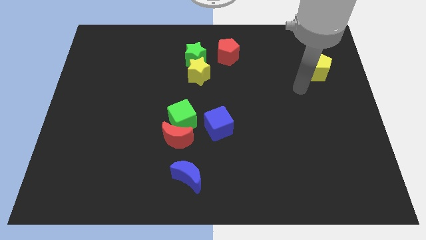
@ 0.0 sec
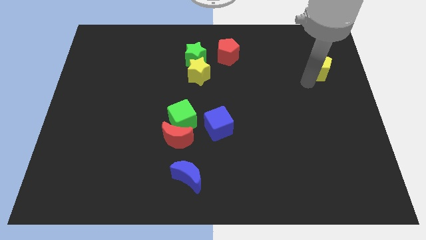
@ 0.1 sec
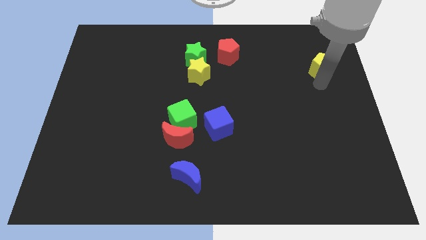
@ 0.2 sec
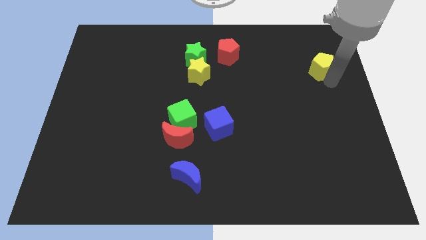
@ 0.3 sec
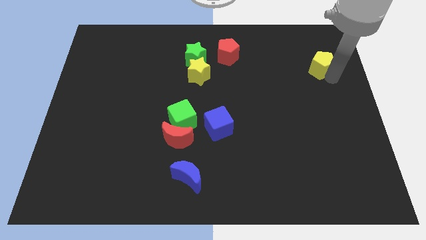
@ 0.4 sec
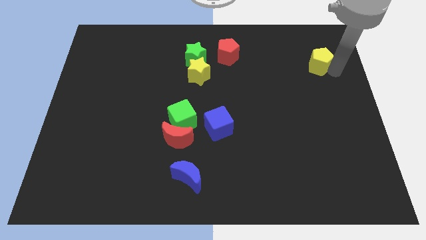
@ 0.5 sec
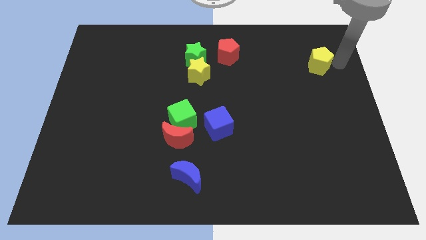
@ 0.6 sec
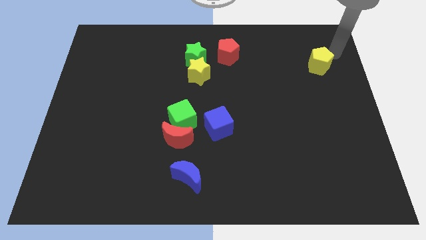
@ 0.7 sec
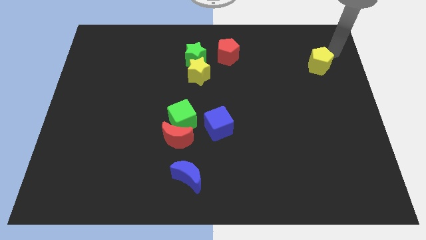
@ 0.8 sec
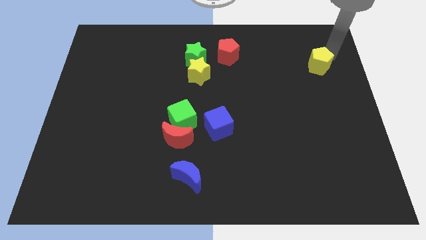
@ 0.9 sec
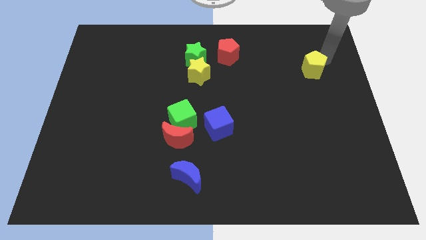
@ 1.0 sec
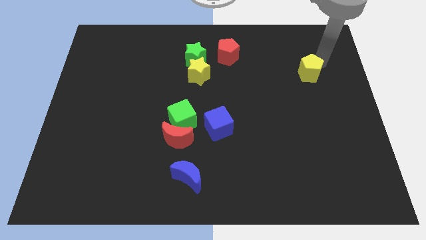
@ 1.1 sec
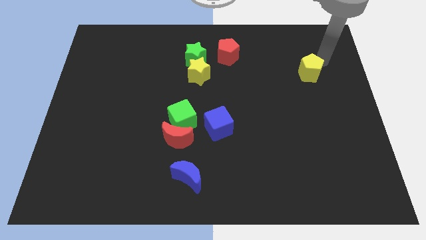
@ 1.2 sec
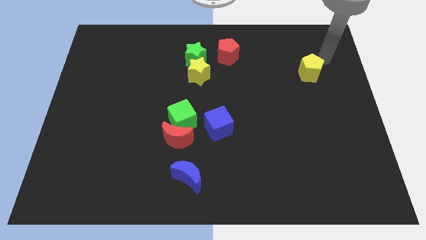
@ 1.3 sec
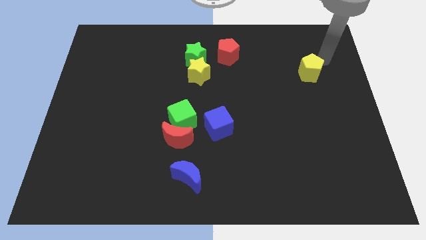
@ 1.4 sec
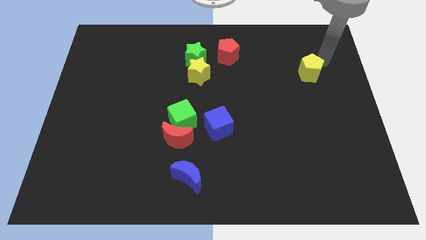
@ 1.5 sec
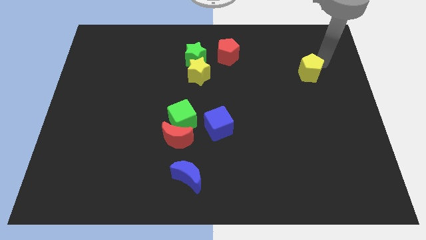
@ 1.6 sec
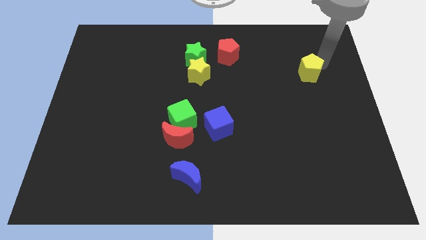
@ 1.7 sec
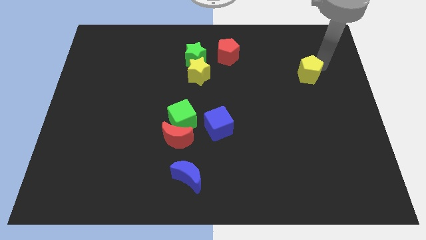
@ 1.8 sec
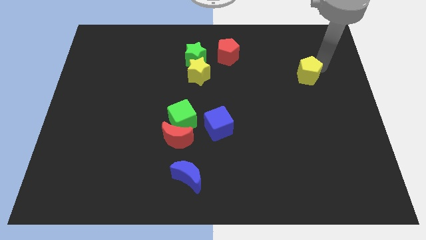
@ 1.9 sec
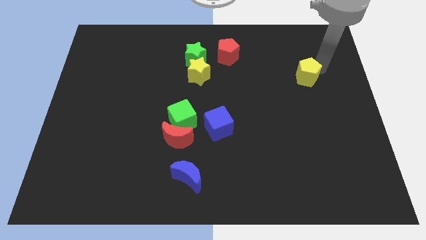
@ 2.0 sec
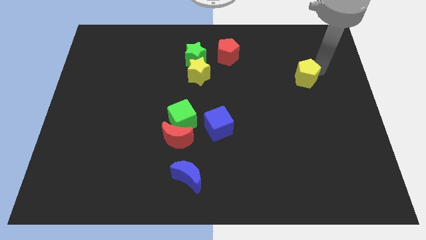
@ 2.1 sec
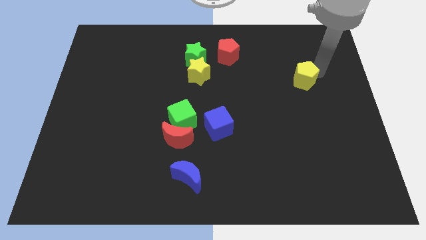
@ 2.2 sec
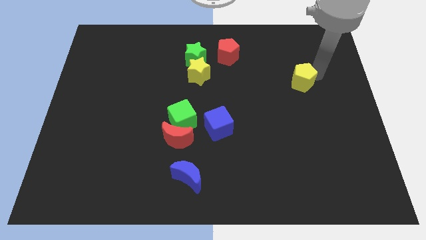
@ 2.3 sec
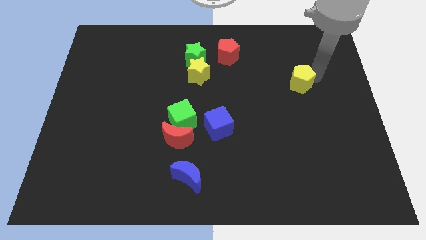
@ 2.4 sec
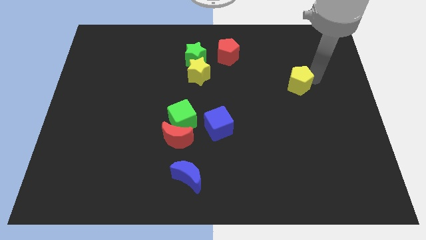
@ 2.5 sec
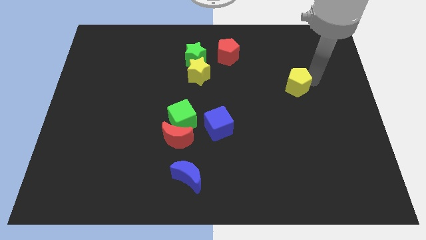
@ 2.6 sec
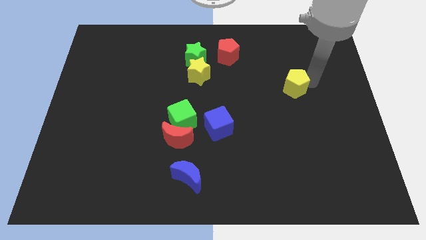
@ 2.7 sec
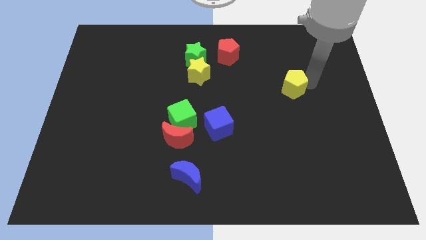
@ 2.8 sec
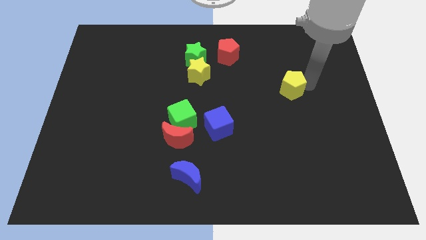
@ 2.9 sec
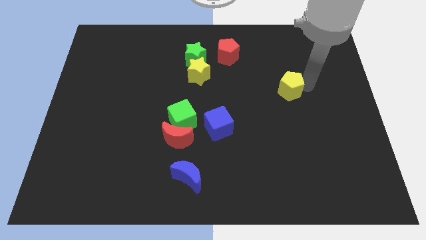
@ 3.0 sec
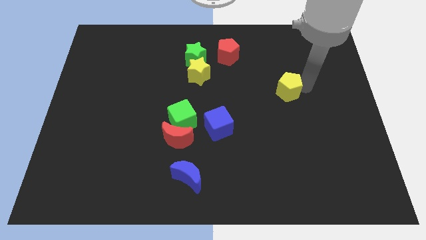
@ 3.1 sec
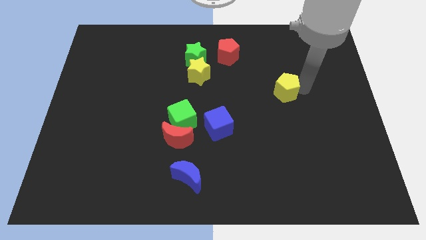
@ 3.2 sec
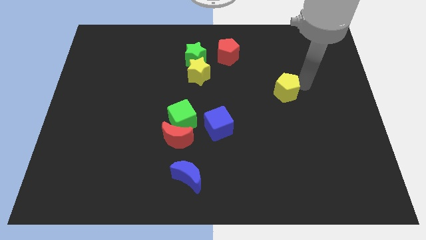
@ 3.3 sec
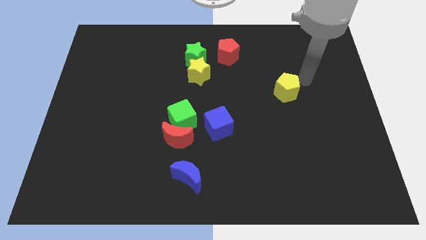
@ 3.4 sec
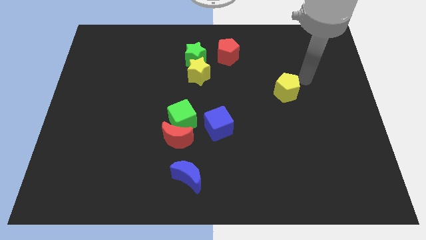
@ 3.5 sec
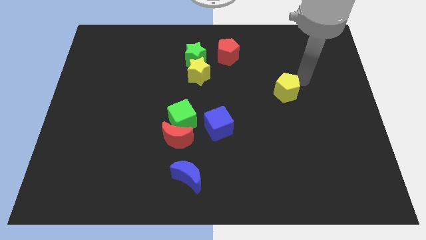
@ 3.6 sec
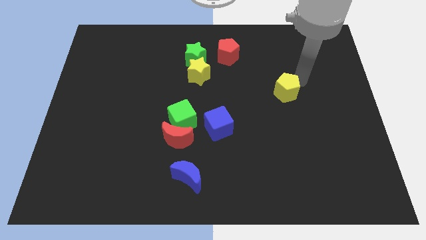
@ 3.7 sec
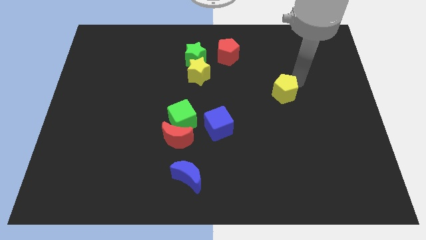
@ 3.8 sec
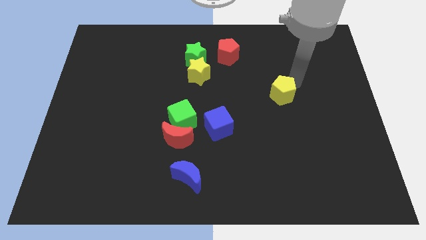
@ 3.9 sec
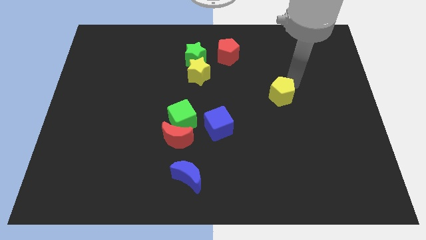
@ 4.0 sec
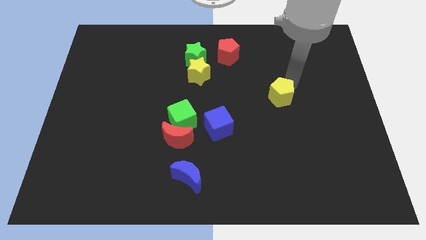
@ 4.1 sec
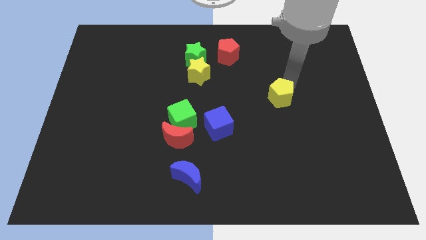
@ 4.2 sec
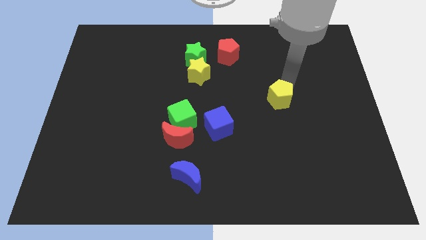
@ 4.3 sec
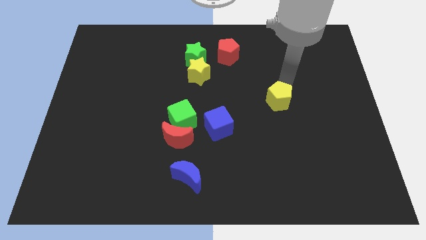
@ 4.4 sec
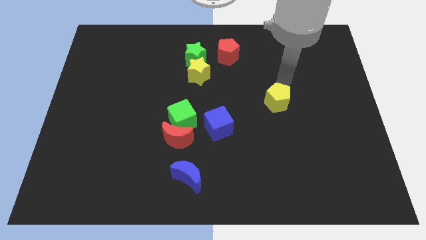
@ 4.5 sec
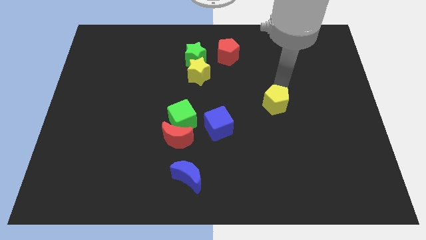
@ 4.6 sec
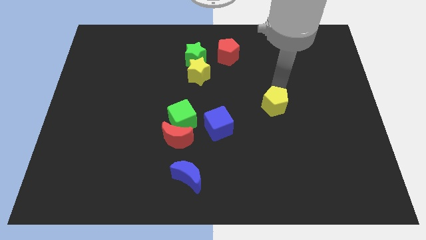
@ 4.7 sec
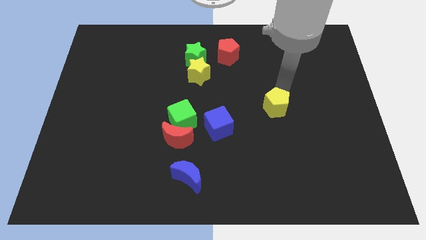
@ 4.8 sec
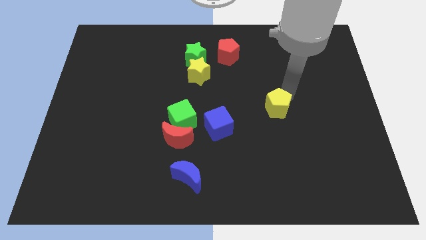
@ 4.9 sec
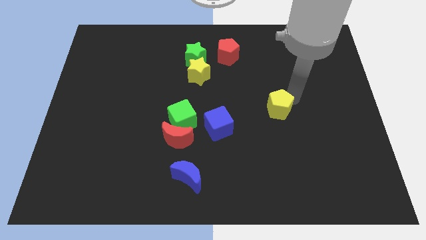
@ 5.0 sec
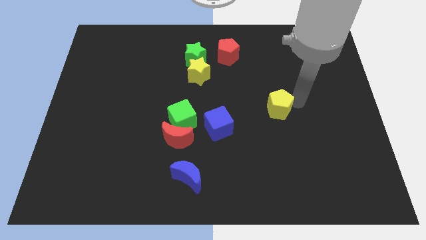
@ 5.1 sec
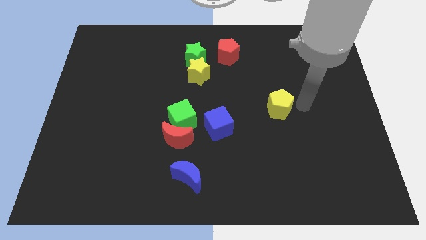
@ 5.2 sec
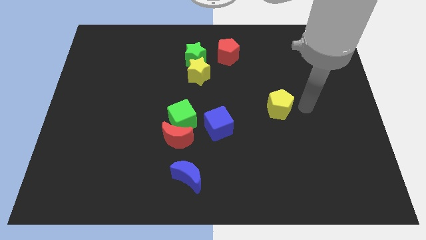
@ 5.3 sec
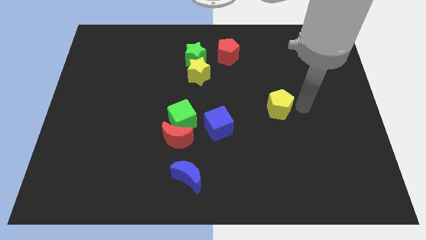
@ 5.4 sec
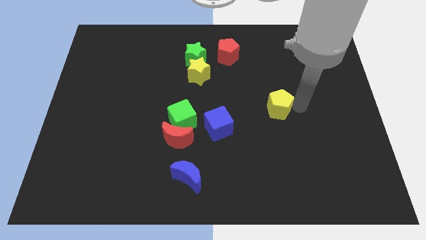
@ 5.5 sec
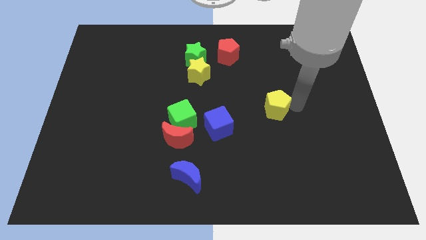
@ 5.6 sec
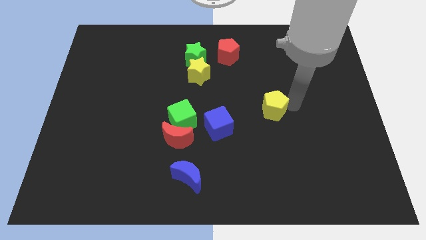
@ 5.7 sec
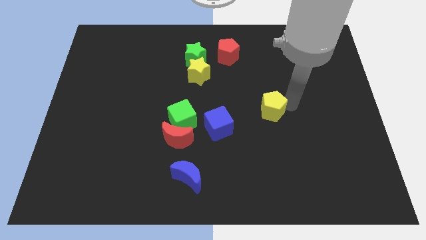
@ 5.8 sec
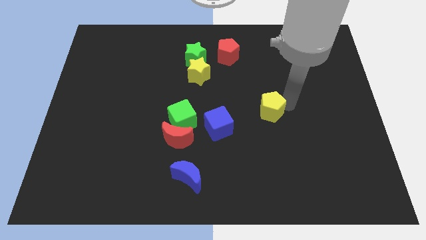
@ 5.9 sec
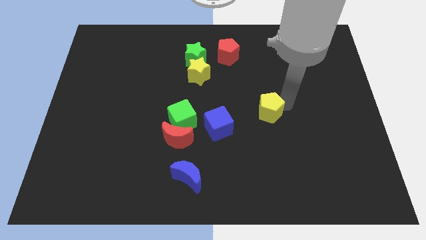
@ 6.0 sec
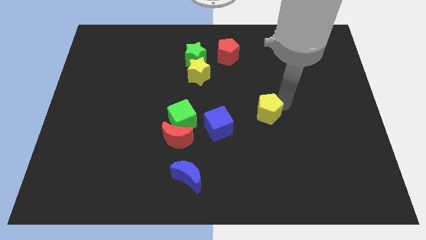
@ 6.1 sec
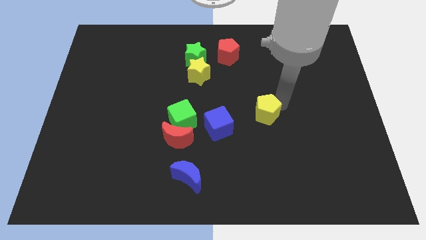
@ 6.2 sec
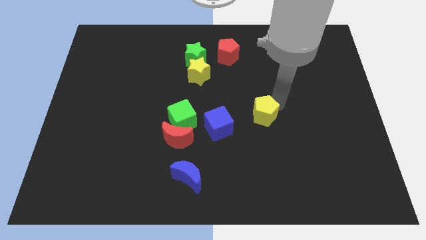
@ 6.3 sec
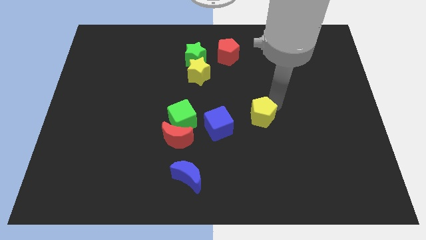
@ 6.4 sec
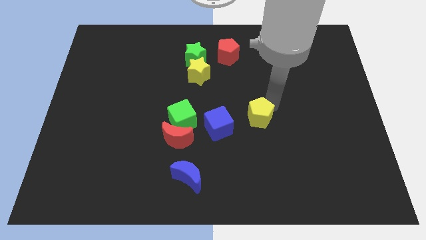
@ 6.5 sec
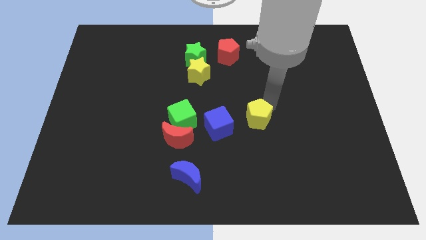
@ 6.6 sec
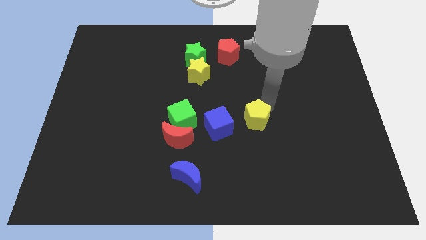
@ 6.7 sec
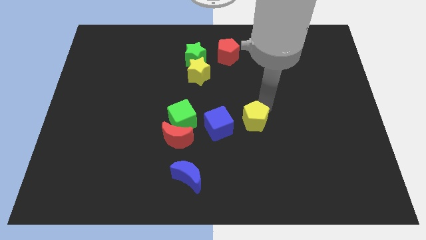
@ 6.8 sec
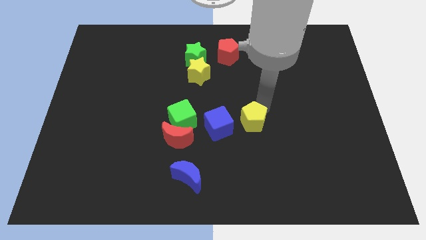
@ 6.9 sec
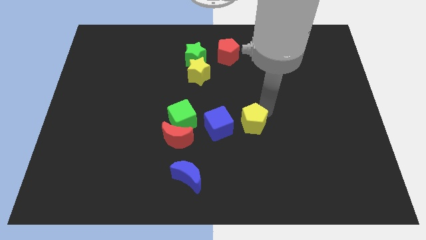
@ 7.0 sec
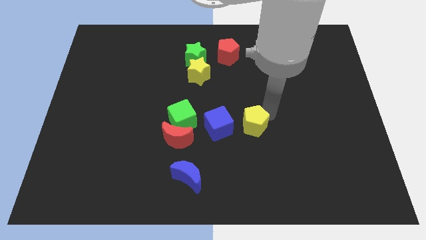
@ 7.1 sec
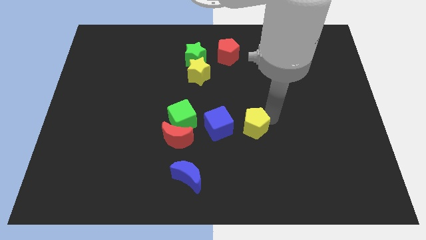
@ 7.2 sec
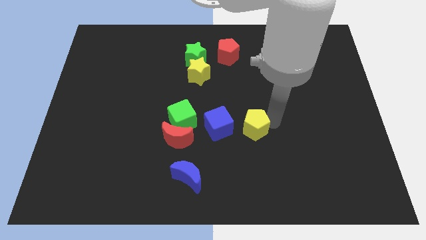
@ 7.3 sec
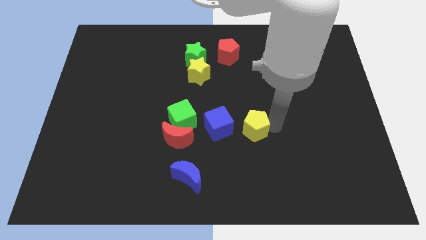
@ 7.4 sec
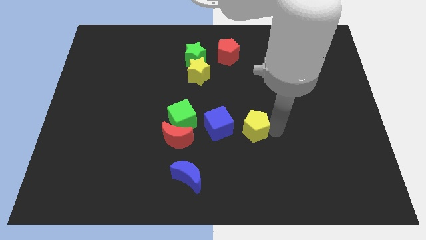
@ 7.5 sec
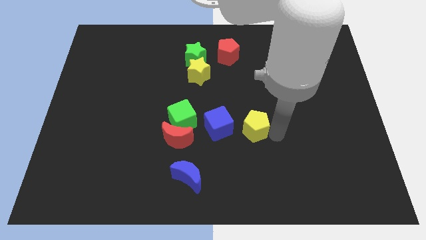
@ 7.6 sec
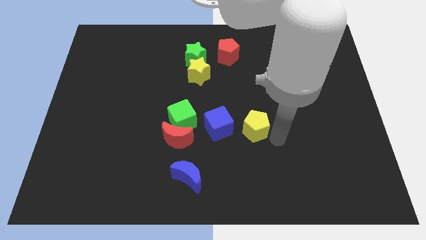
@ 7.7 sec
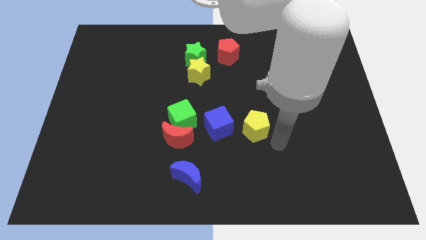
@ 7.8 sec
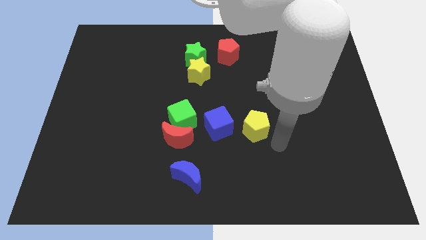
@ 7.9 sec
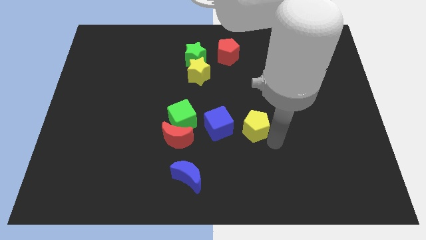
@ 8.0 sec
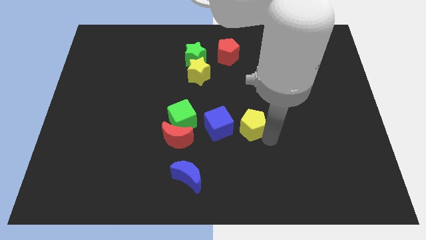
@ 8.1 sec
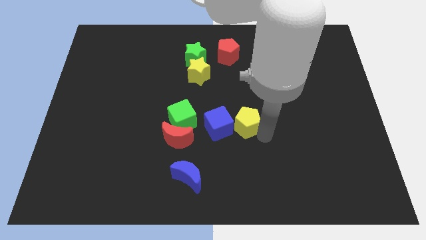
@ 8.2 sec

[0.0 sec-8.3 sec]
slide the yellow pentagon towards the blue cube
